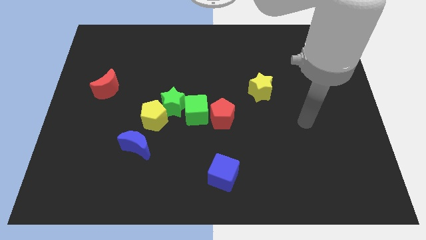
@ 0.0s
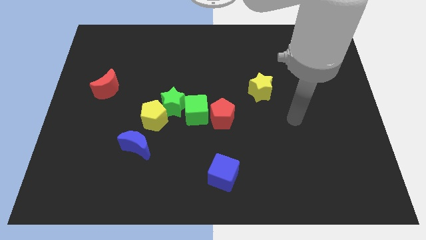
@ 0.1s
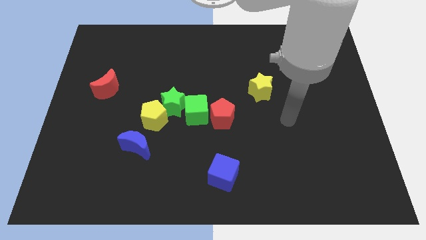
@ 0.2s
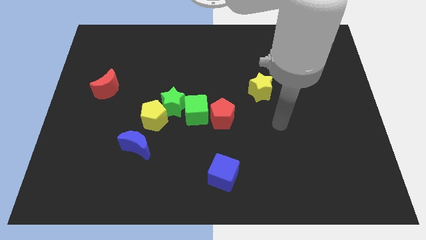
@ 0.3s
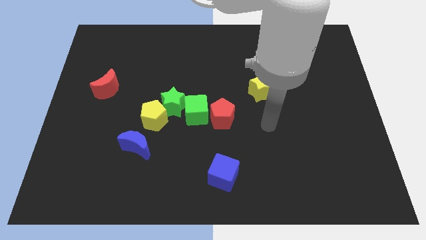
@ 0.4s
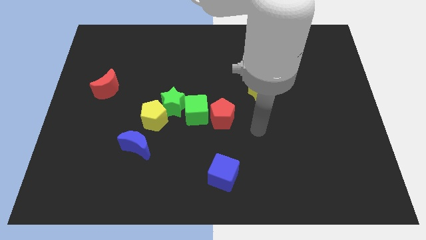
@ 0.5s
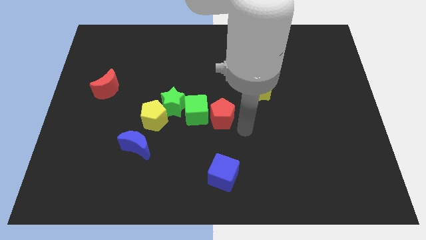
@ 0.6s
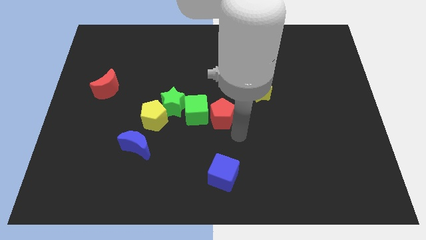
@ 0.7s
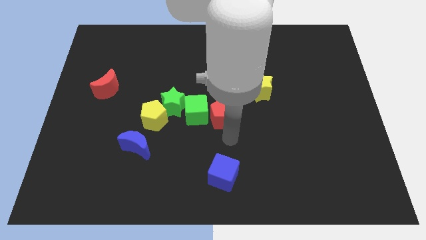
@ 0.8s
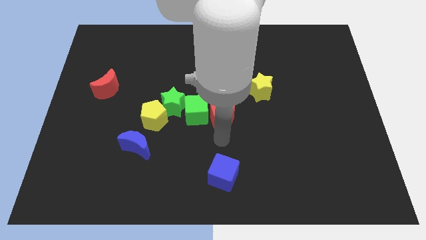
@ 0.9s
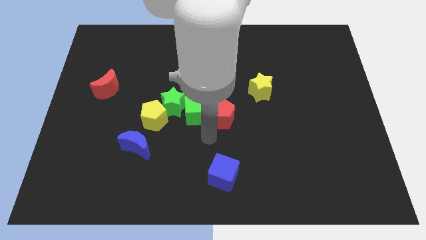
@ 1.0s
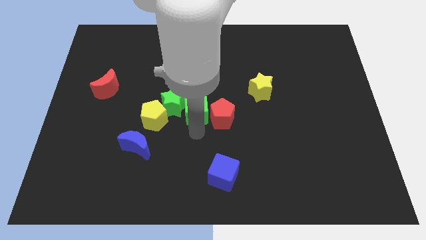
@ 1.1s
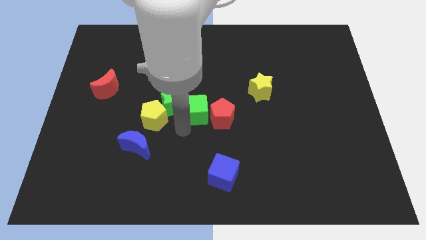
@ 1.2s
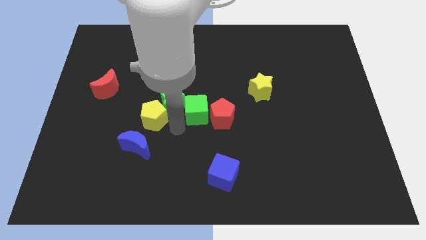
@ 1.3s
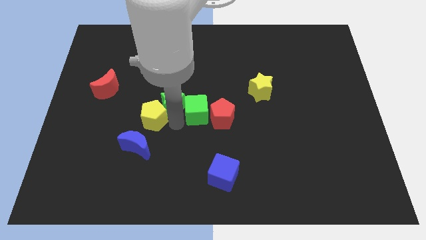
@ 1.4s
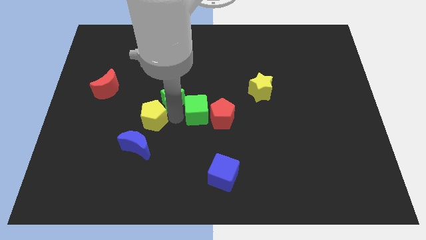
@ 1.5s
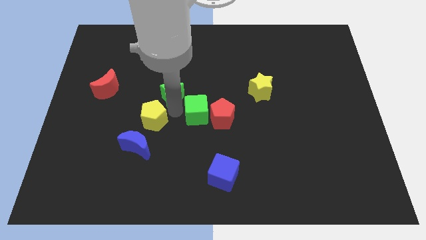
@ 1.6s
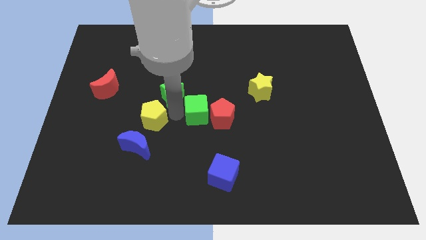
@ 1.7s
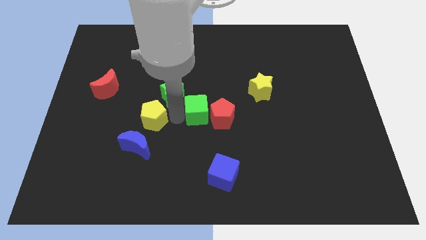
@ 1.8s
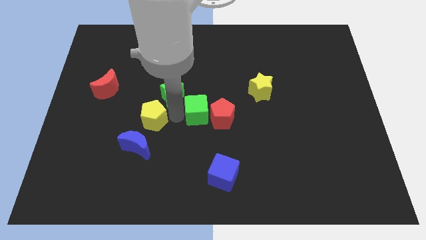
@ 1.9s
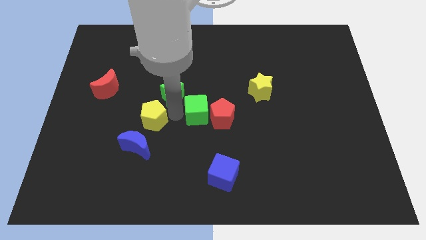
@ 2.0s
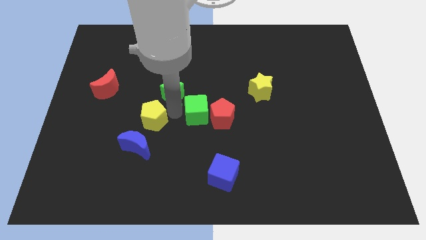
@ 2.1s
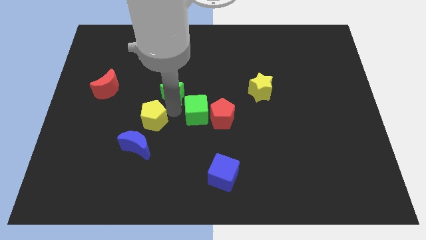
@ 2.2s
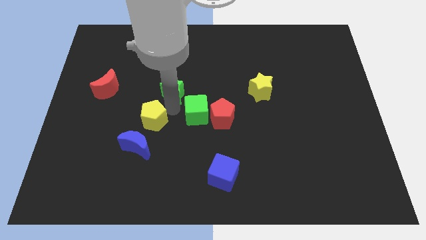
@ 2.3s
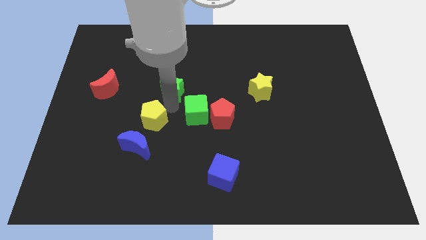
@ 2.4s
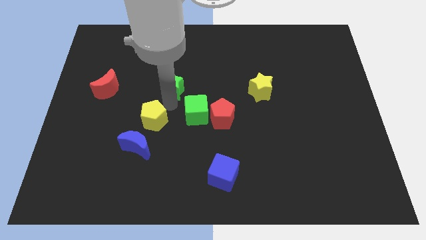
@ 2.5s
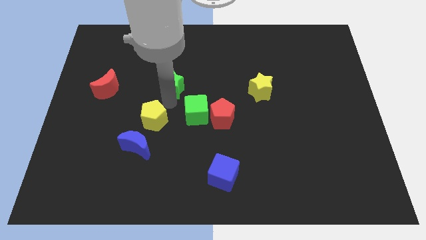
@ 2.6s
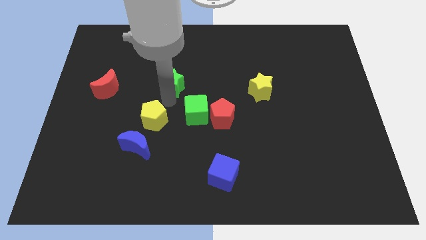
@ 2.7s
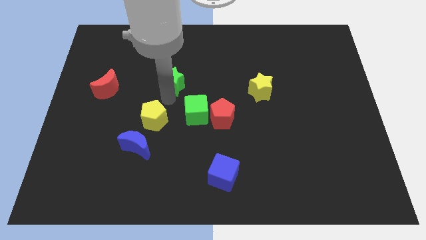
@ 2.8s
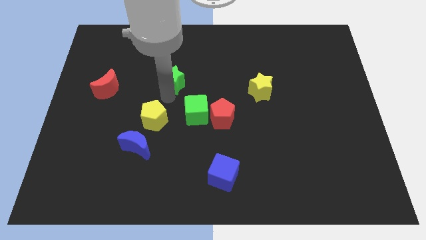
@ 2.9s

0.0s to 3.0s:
pull the green star apart from the green cube and yellow pentagon

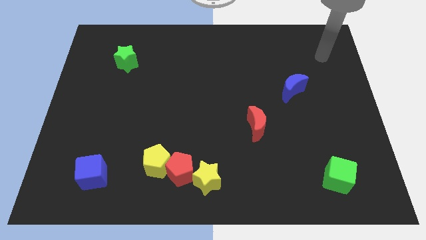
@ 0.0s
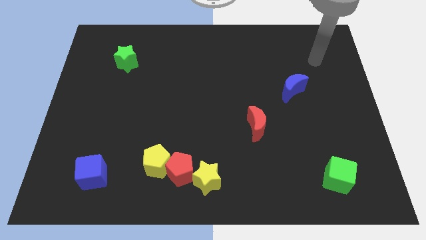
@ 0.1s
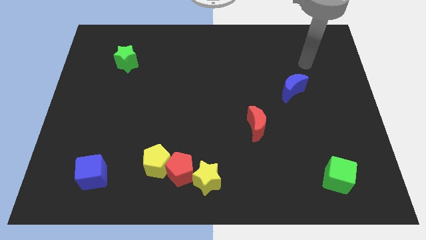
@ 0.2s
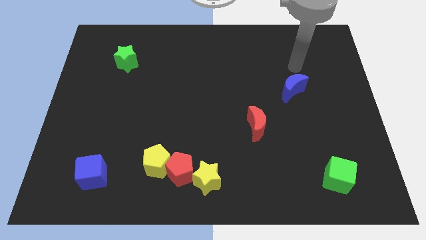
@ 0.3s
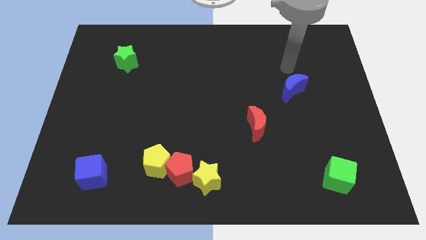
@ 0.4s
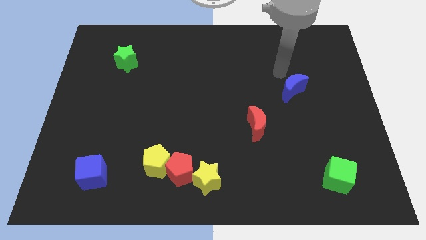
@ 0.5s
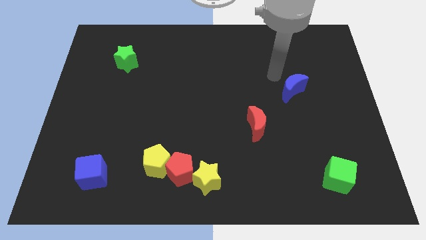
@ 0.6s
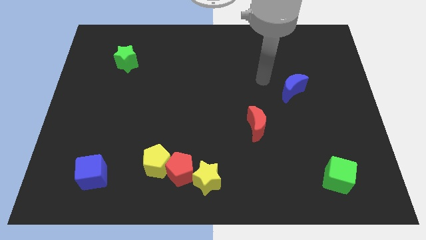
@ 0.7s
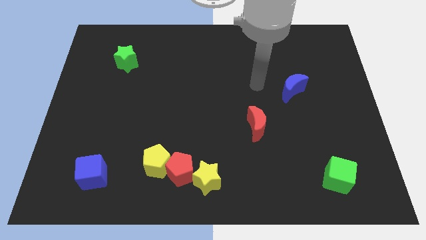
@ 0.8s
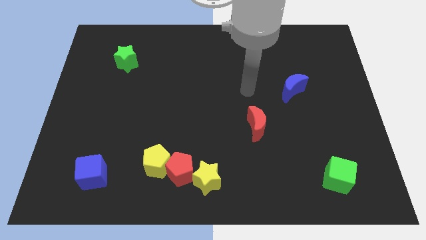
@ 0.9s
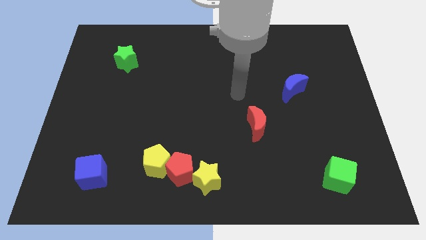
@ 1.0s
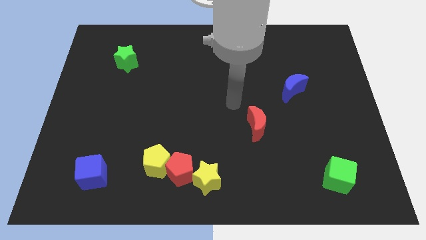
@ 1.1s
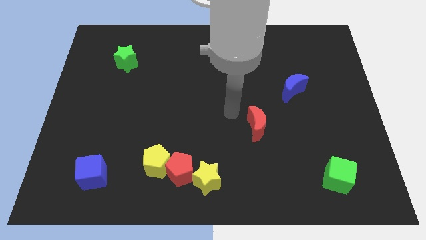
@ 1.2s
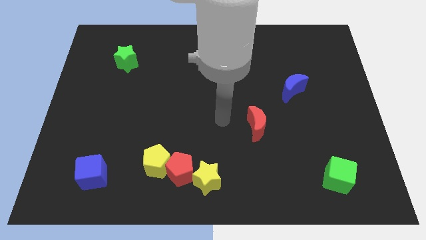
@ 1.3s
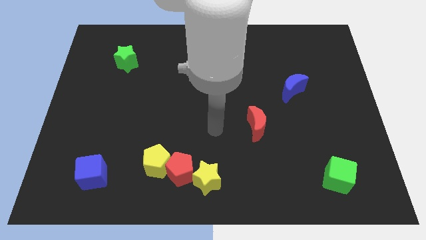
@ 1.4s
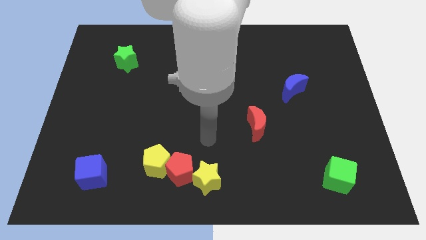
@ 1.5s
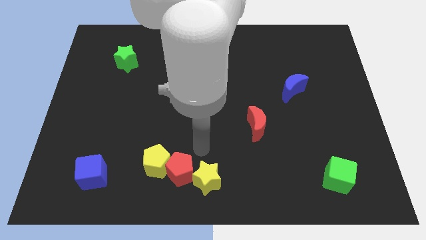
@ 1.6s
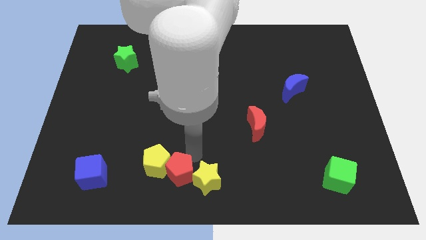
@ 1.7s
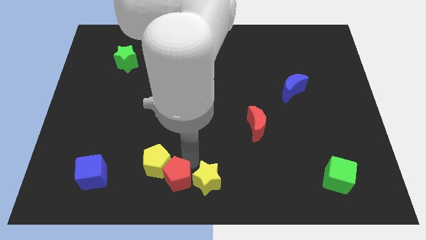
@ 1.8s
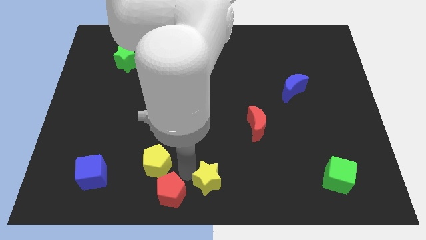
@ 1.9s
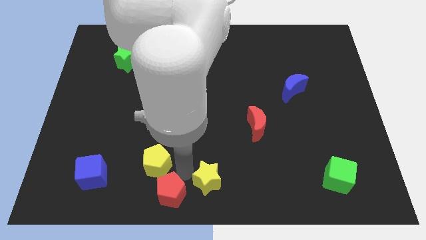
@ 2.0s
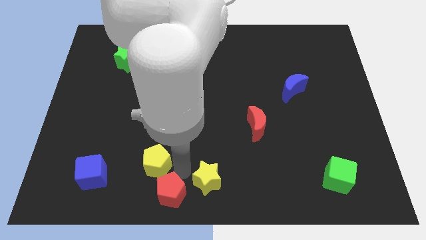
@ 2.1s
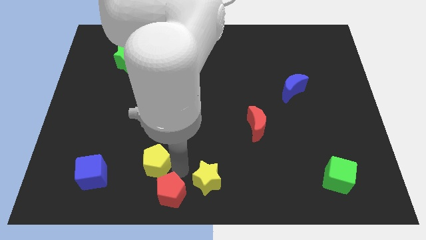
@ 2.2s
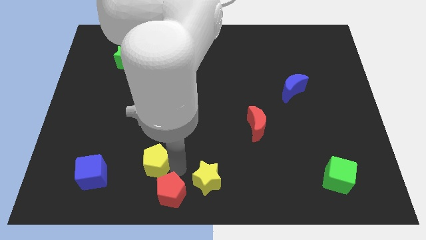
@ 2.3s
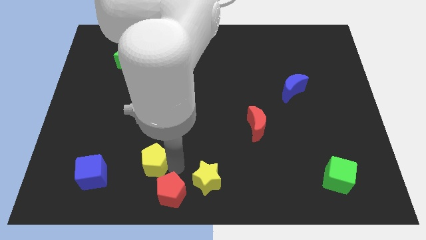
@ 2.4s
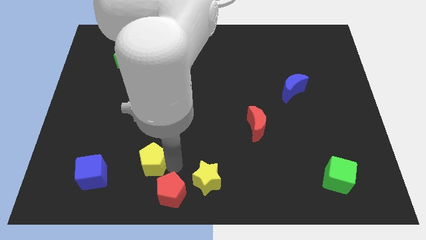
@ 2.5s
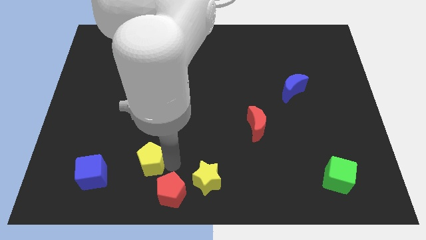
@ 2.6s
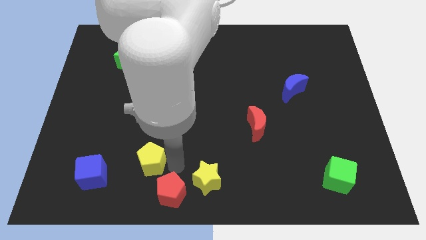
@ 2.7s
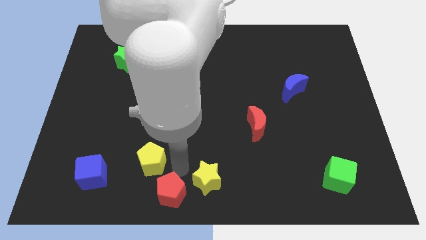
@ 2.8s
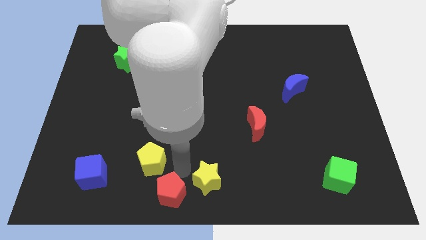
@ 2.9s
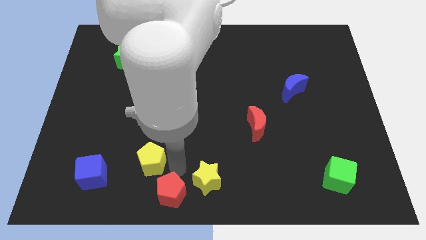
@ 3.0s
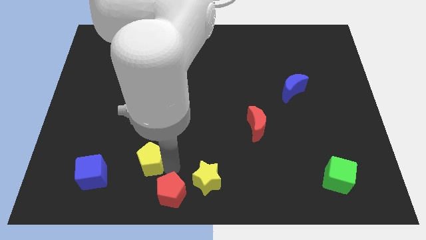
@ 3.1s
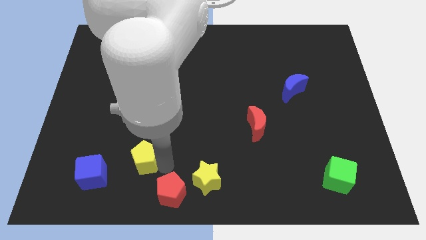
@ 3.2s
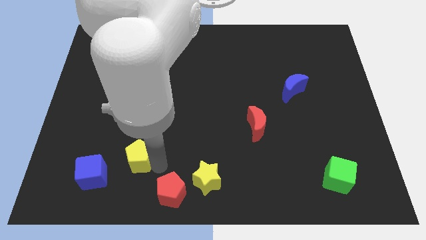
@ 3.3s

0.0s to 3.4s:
separate the yellow pentagon from the red pentagon

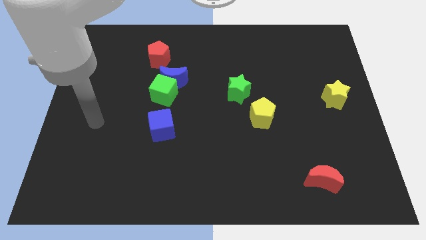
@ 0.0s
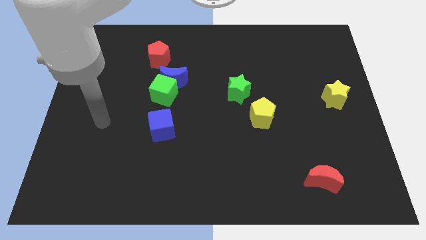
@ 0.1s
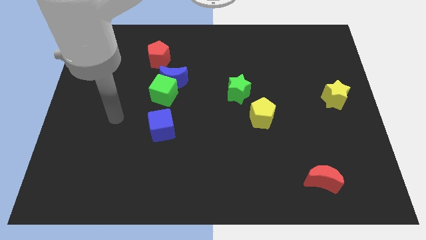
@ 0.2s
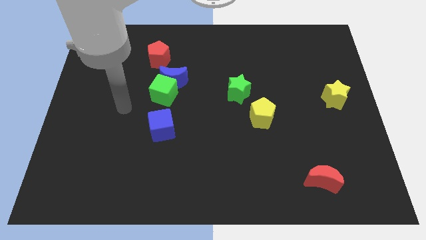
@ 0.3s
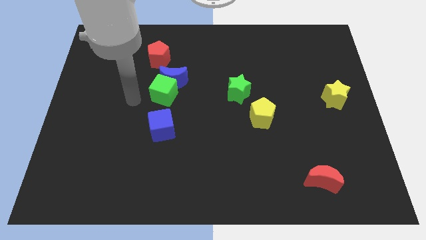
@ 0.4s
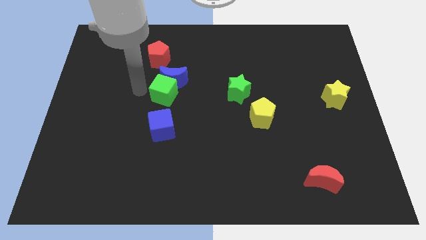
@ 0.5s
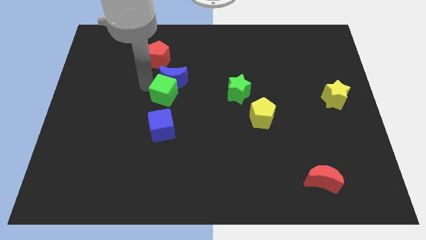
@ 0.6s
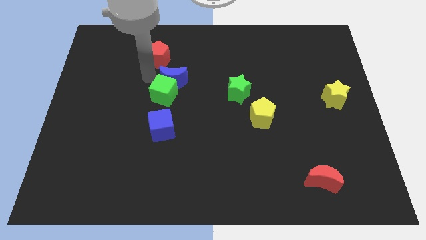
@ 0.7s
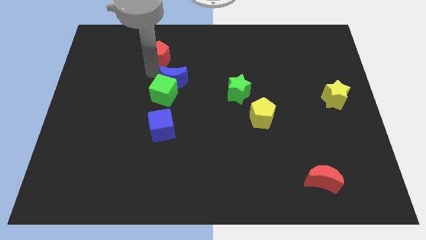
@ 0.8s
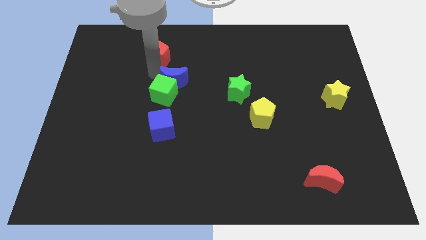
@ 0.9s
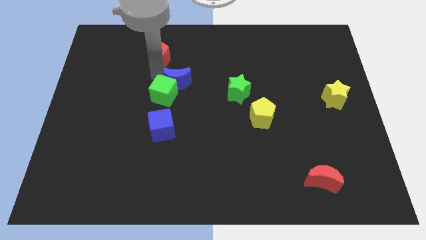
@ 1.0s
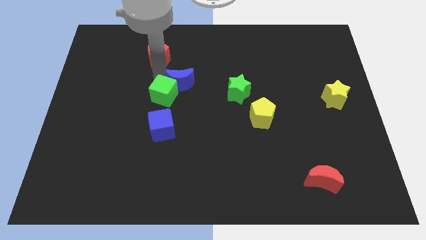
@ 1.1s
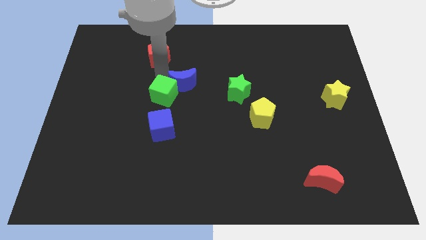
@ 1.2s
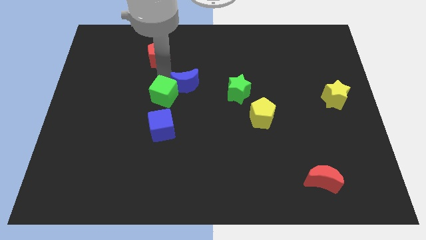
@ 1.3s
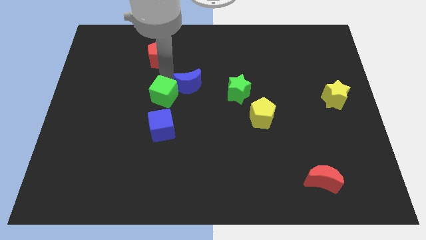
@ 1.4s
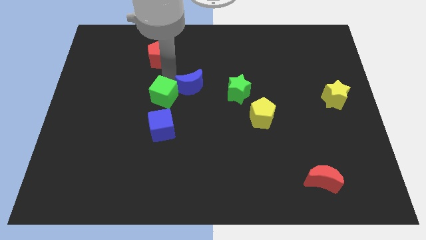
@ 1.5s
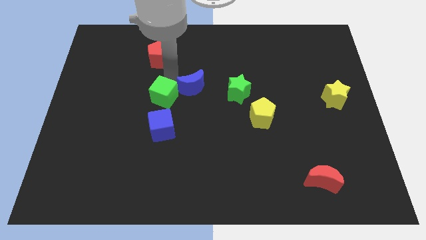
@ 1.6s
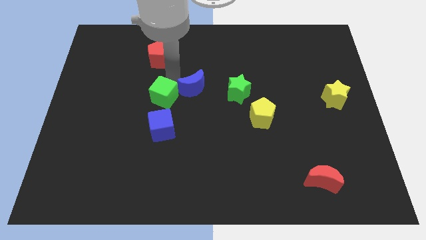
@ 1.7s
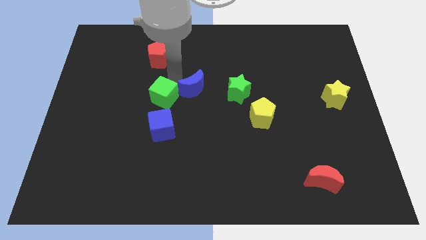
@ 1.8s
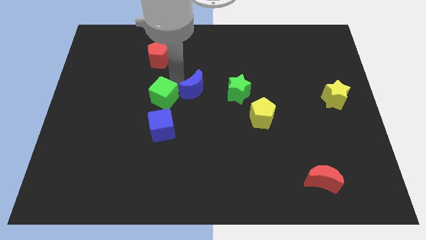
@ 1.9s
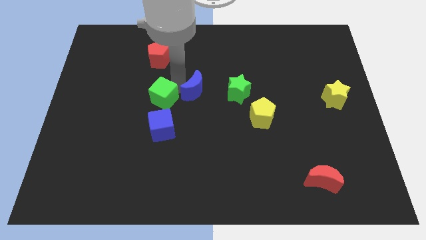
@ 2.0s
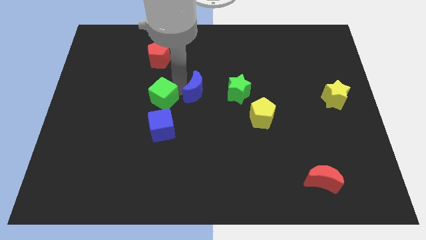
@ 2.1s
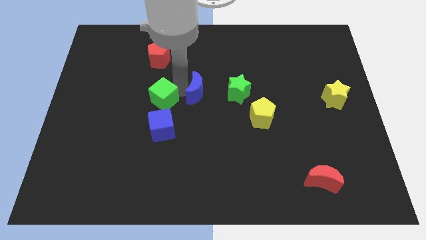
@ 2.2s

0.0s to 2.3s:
move the blue moon away from the green cube and red pentagon

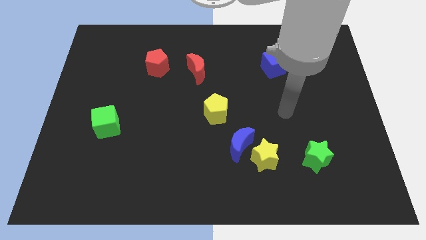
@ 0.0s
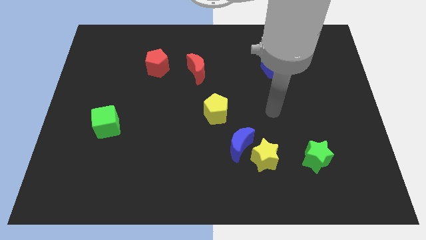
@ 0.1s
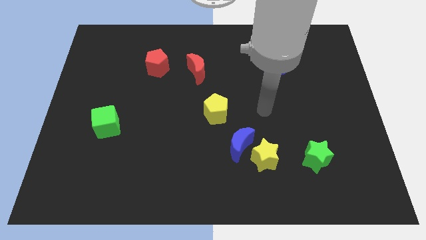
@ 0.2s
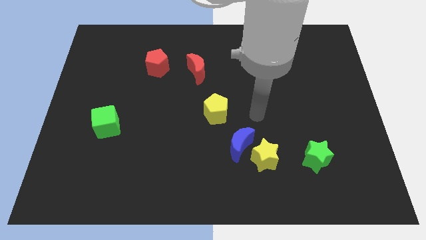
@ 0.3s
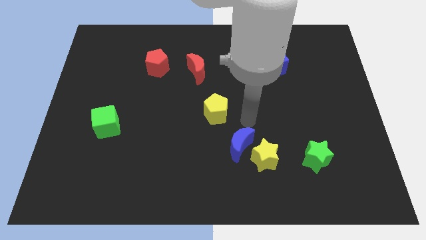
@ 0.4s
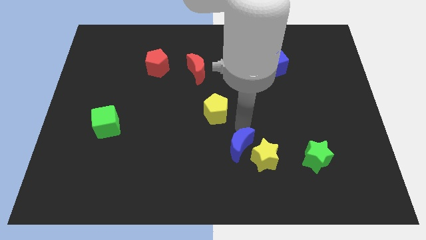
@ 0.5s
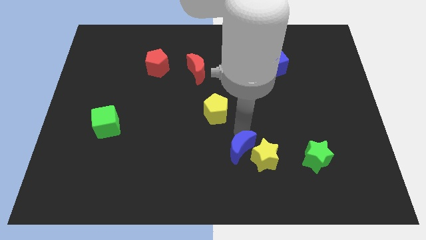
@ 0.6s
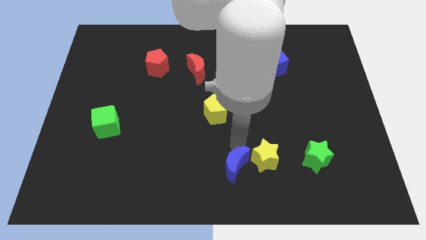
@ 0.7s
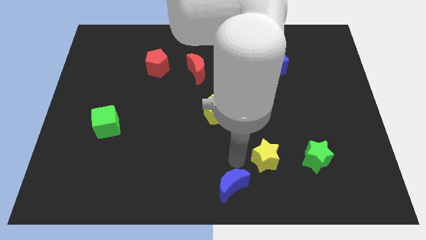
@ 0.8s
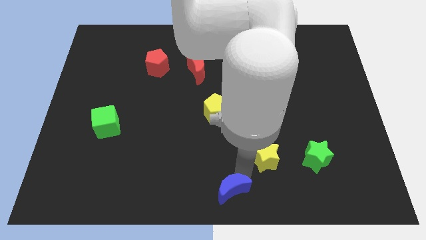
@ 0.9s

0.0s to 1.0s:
separate the yellow star from the blue moon
